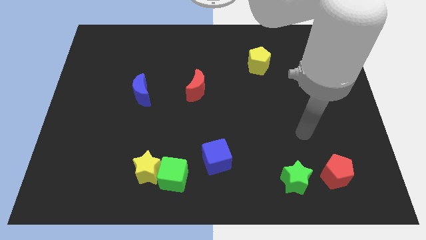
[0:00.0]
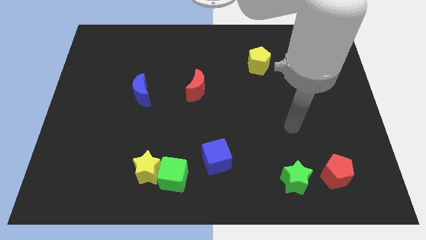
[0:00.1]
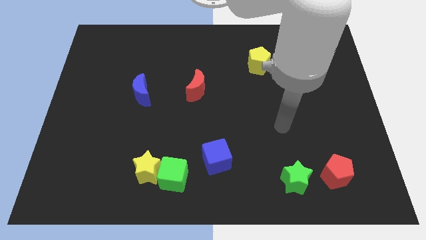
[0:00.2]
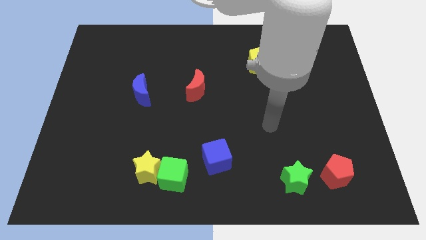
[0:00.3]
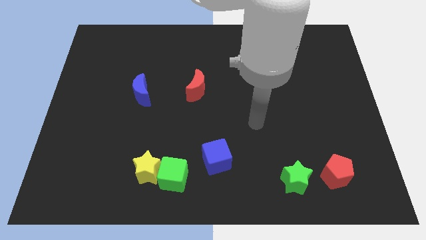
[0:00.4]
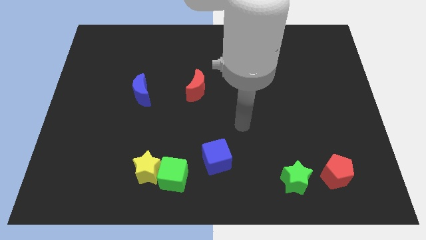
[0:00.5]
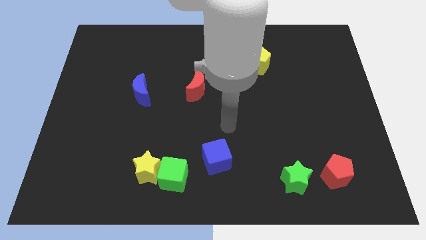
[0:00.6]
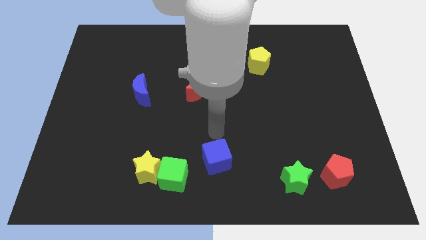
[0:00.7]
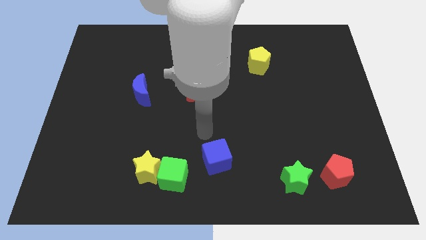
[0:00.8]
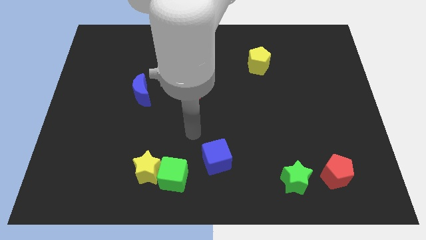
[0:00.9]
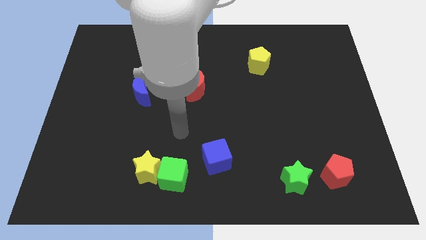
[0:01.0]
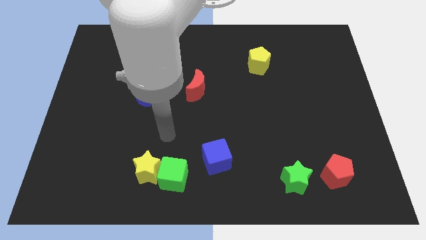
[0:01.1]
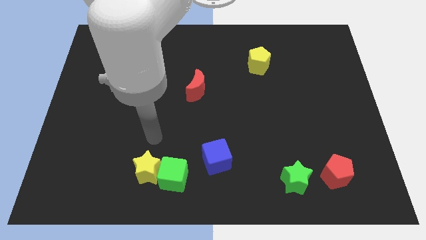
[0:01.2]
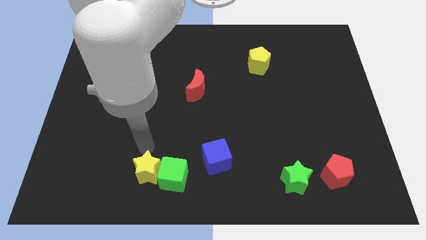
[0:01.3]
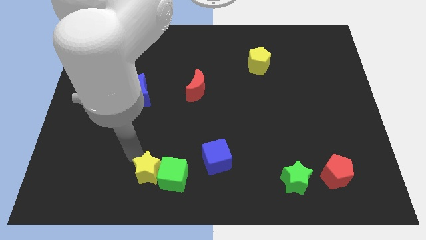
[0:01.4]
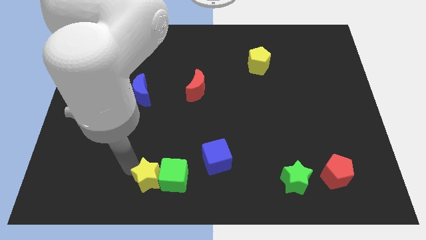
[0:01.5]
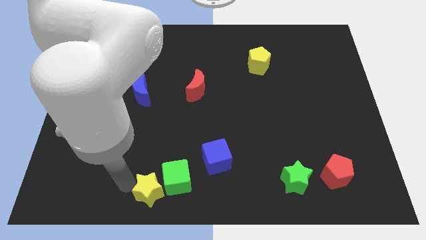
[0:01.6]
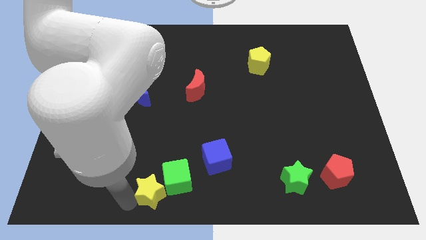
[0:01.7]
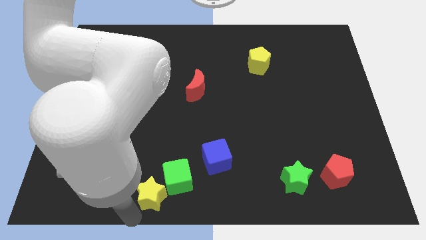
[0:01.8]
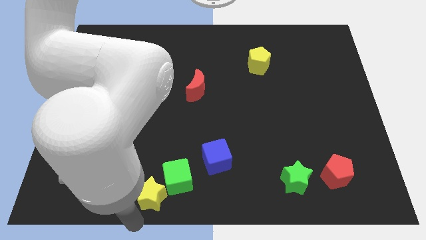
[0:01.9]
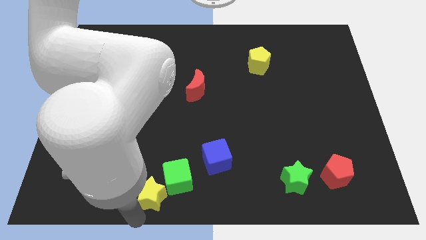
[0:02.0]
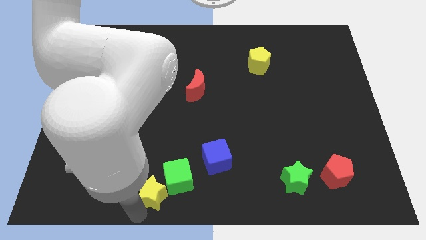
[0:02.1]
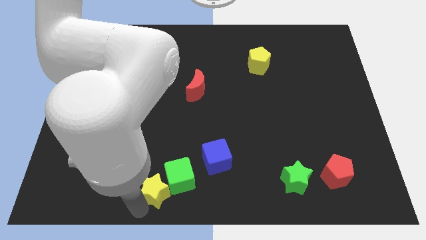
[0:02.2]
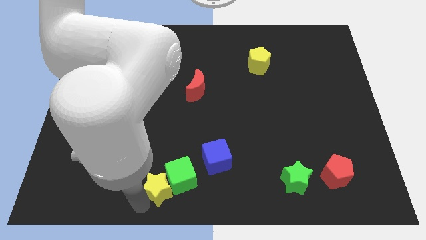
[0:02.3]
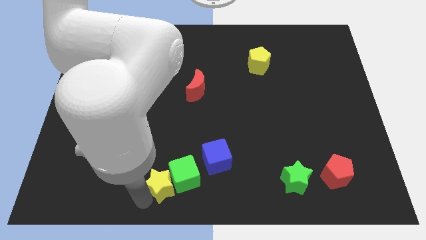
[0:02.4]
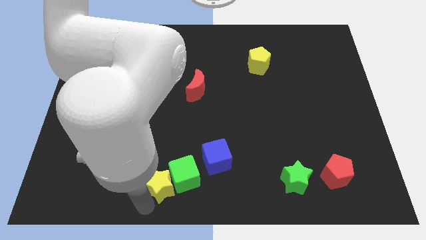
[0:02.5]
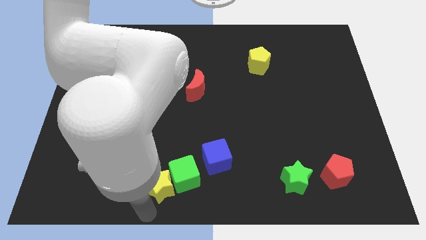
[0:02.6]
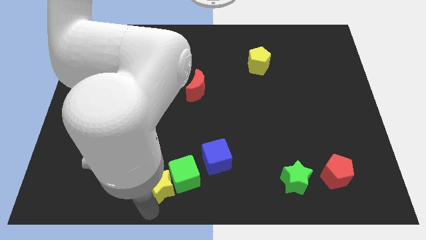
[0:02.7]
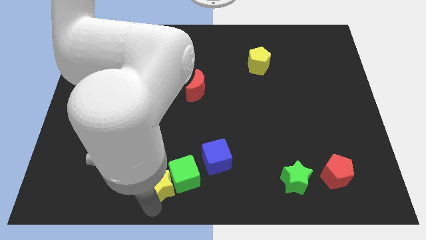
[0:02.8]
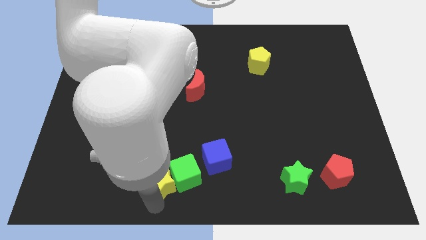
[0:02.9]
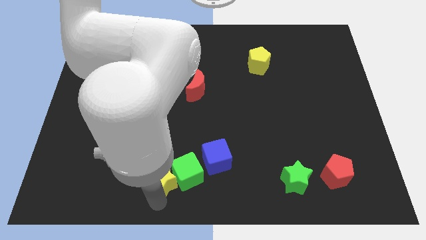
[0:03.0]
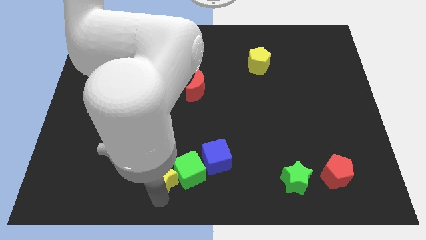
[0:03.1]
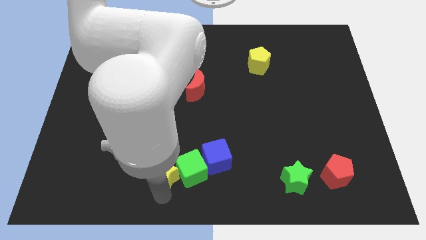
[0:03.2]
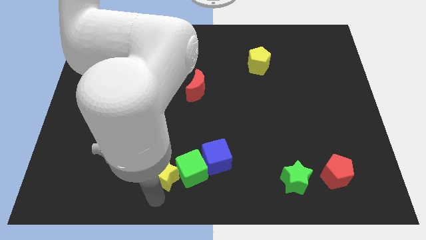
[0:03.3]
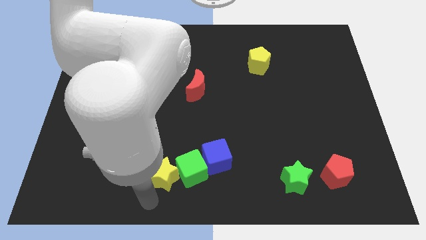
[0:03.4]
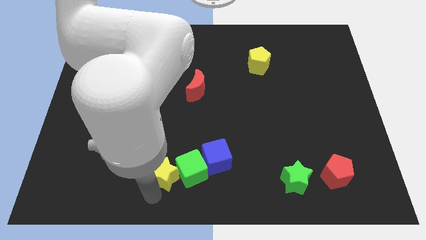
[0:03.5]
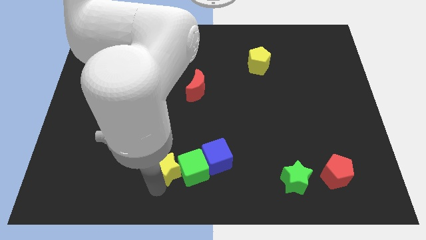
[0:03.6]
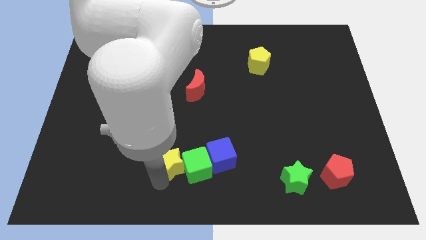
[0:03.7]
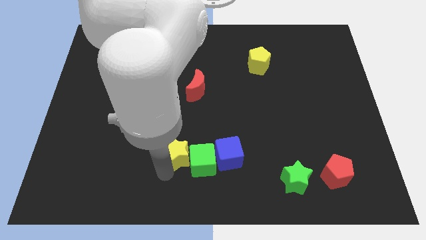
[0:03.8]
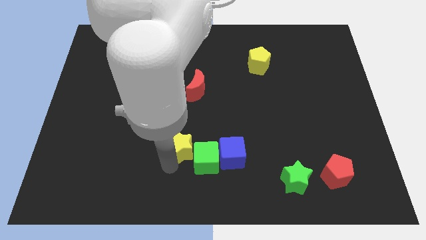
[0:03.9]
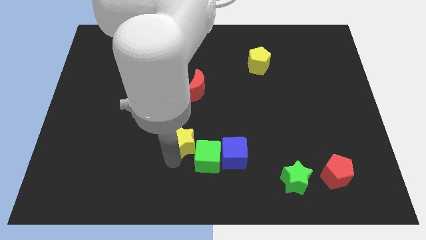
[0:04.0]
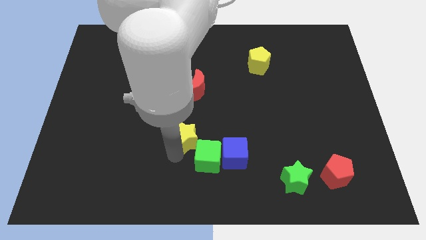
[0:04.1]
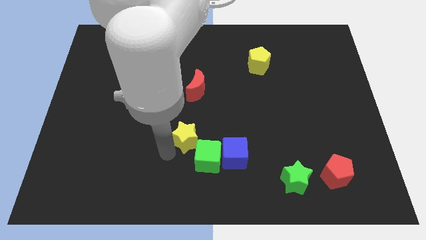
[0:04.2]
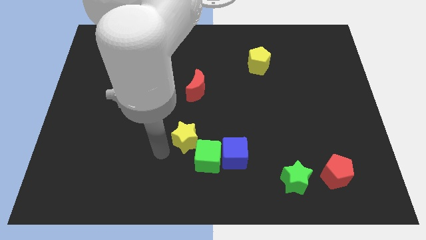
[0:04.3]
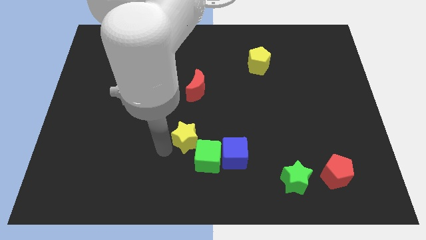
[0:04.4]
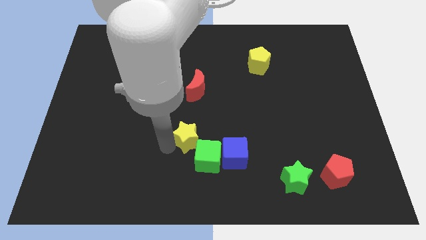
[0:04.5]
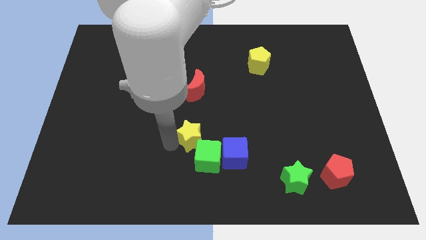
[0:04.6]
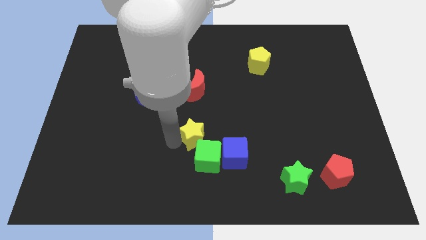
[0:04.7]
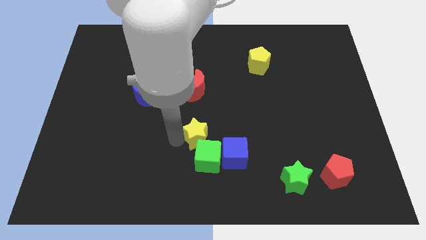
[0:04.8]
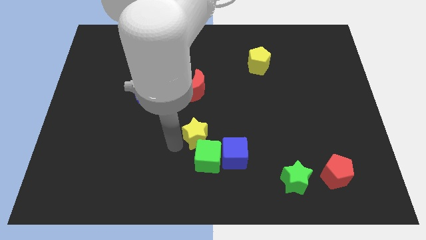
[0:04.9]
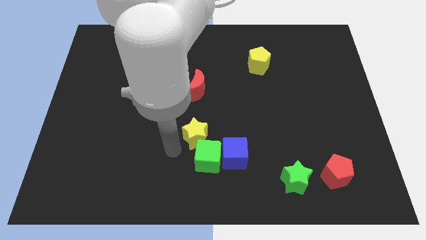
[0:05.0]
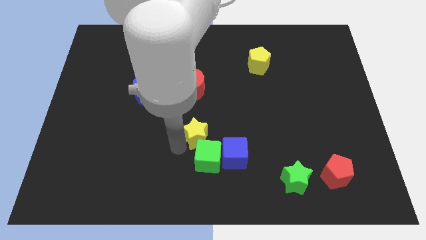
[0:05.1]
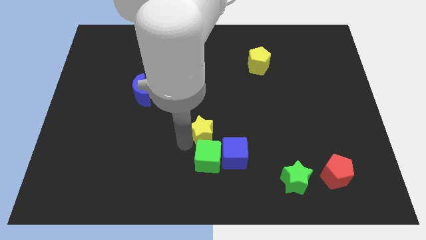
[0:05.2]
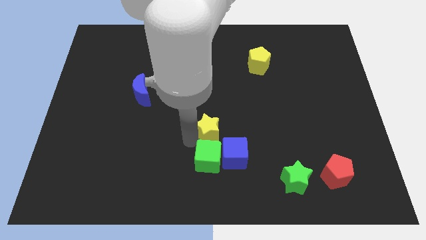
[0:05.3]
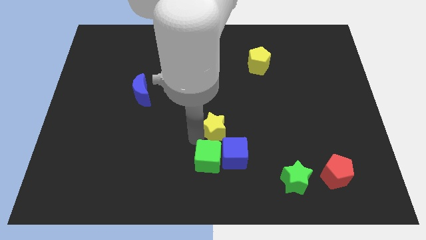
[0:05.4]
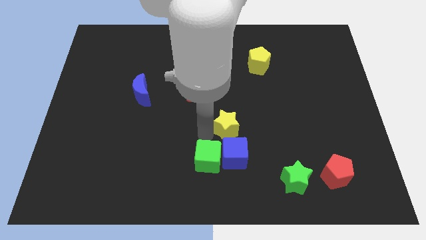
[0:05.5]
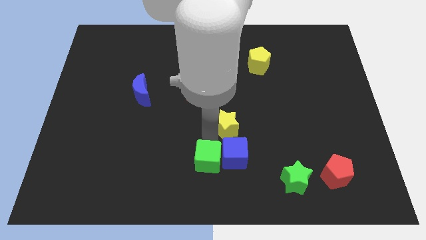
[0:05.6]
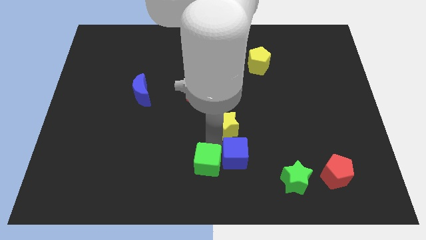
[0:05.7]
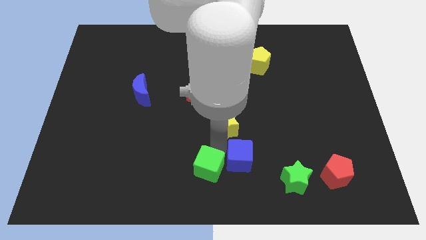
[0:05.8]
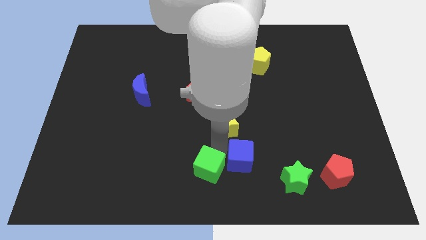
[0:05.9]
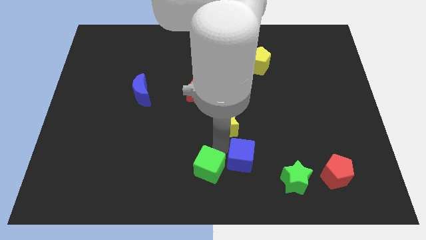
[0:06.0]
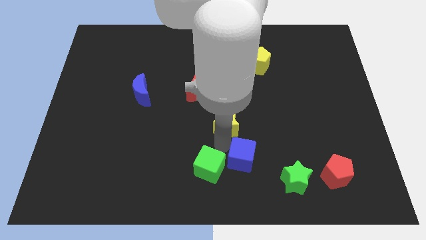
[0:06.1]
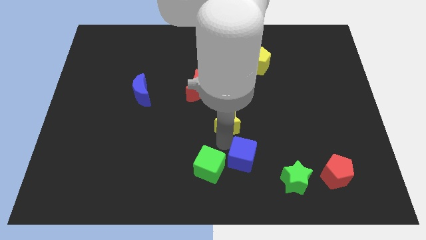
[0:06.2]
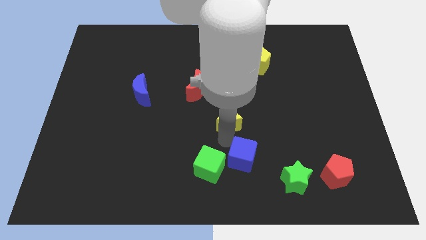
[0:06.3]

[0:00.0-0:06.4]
push the yellow star upwards and right

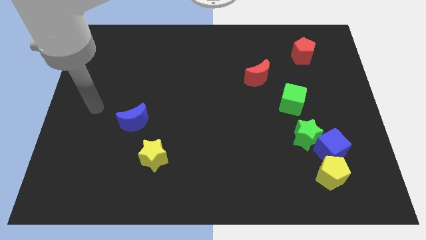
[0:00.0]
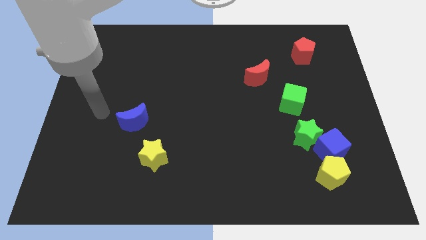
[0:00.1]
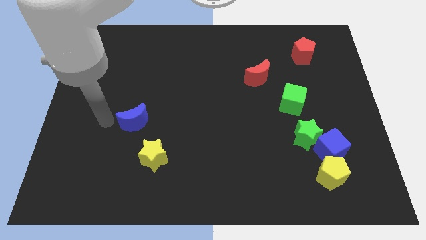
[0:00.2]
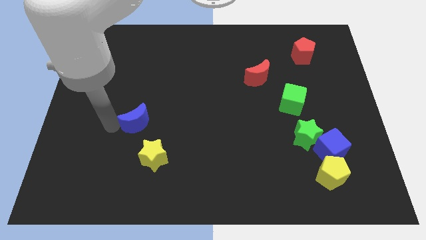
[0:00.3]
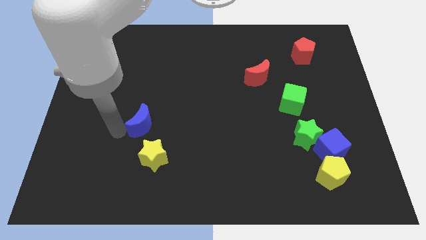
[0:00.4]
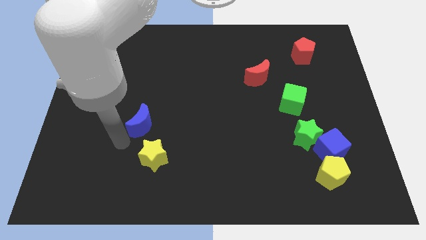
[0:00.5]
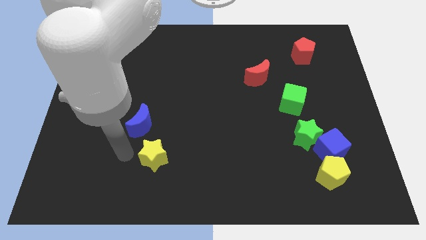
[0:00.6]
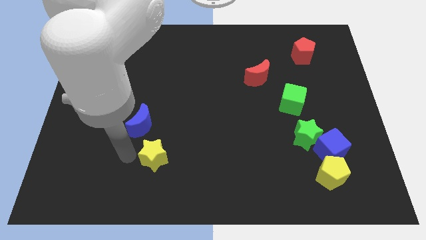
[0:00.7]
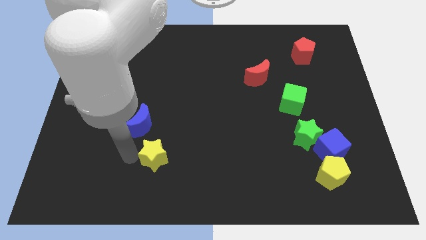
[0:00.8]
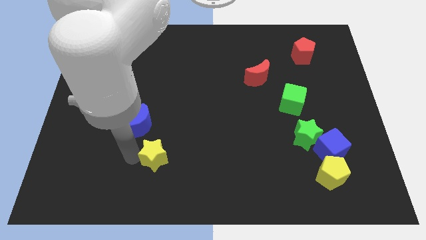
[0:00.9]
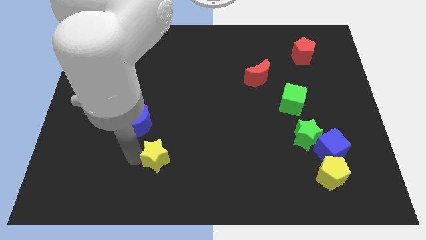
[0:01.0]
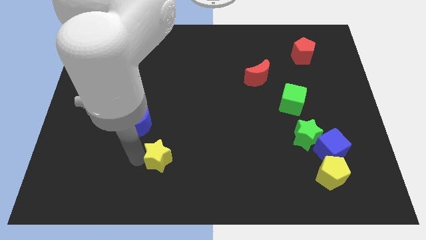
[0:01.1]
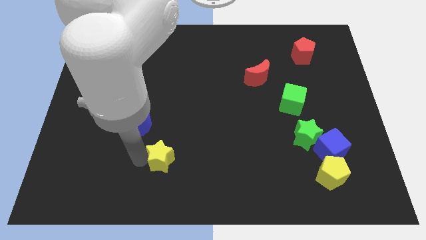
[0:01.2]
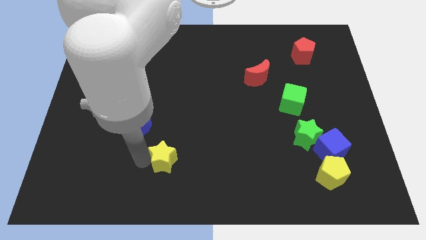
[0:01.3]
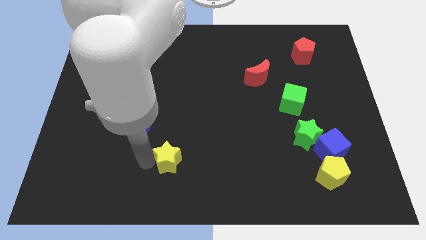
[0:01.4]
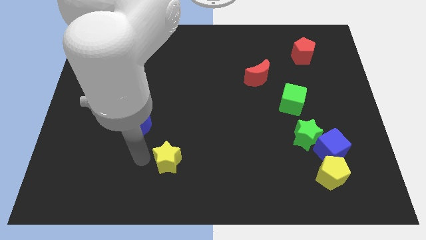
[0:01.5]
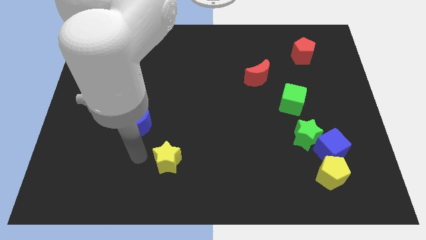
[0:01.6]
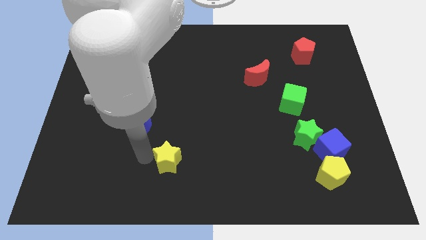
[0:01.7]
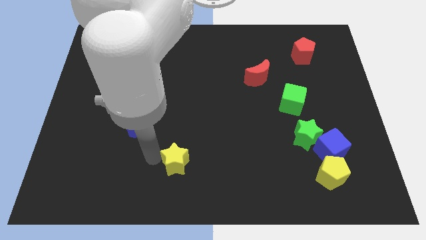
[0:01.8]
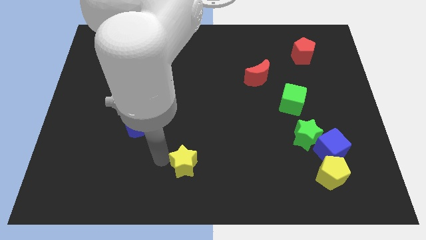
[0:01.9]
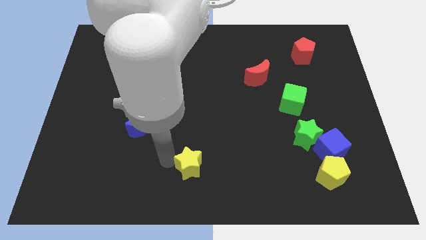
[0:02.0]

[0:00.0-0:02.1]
slide the yellow star right somewhat
